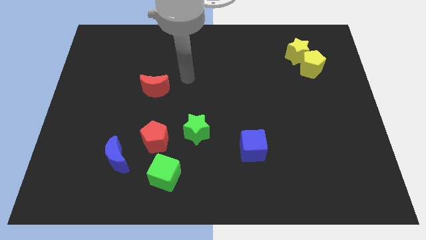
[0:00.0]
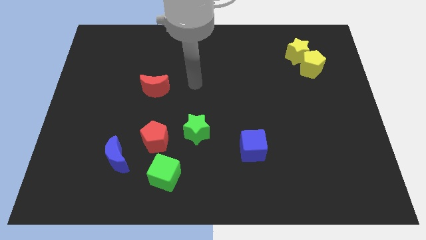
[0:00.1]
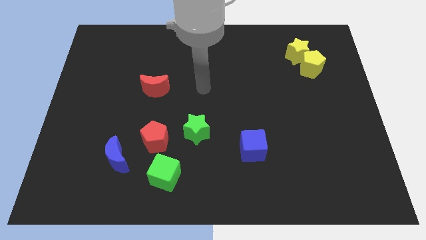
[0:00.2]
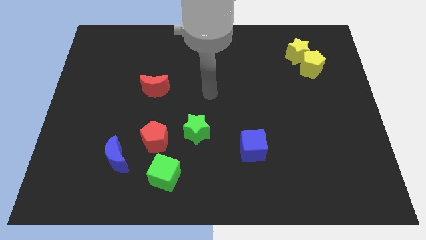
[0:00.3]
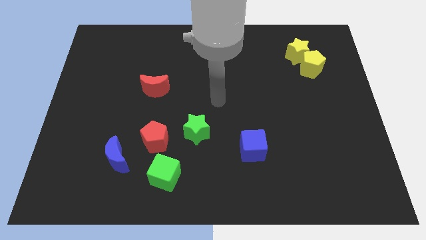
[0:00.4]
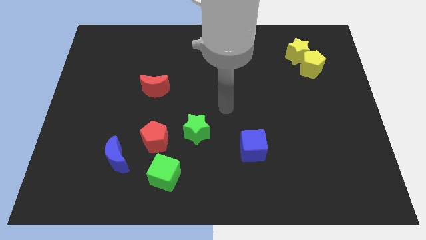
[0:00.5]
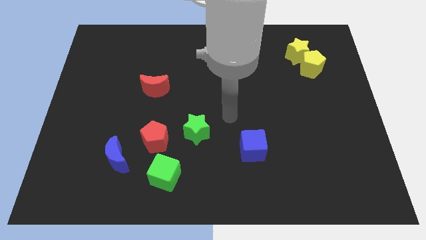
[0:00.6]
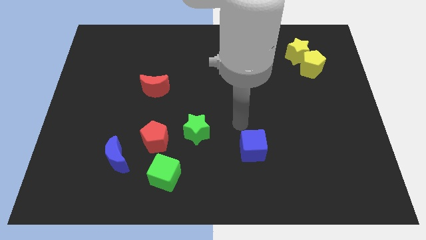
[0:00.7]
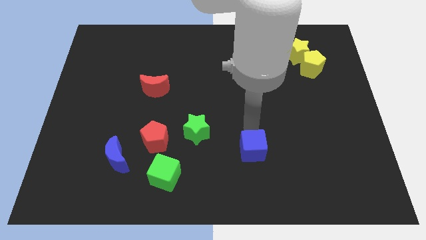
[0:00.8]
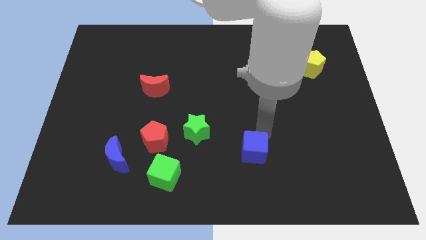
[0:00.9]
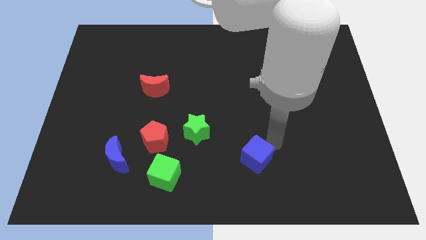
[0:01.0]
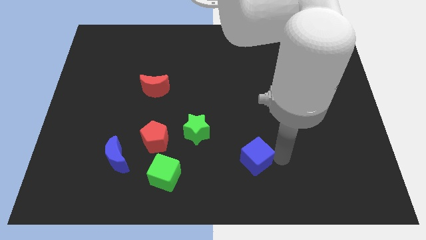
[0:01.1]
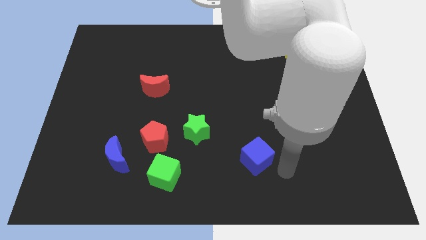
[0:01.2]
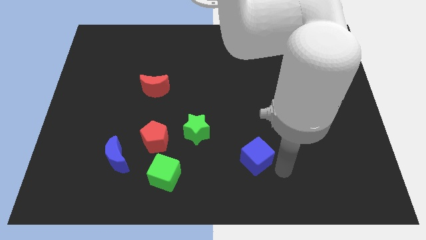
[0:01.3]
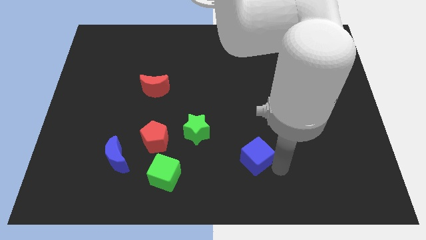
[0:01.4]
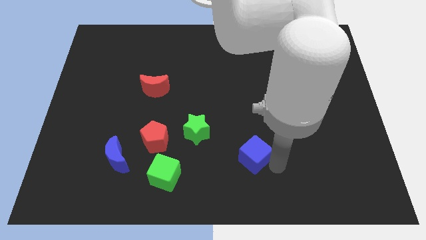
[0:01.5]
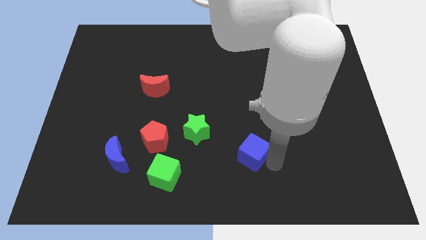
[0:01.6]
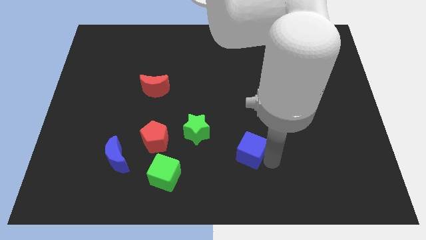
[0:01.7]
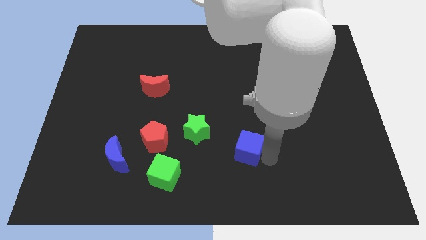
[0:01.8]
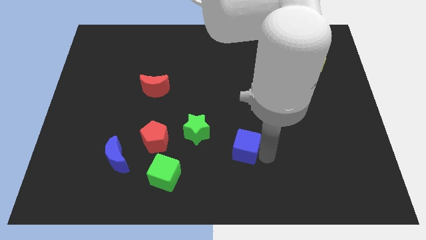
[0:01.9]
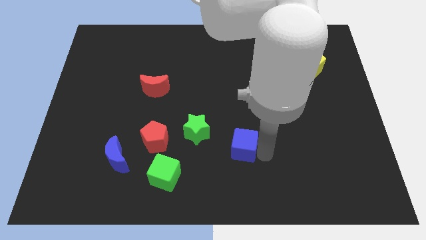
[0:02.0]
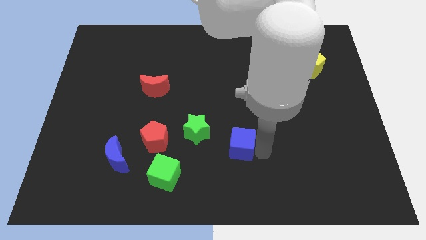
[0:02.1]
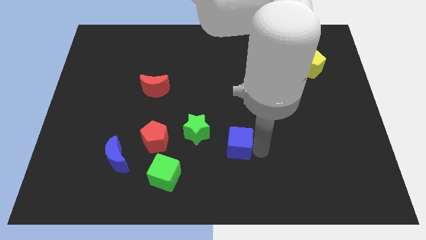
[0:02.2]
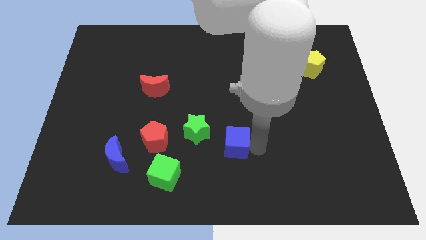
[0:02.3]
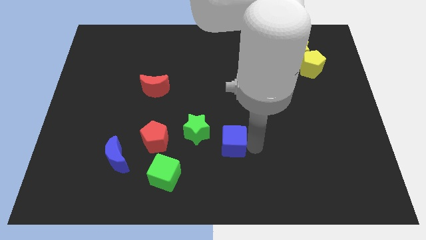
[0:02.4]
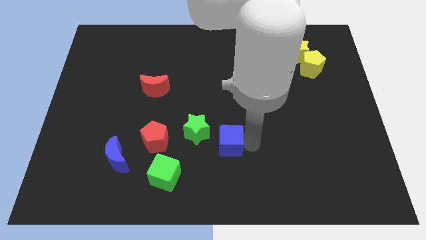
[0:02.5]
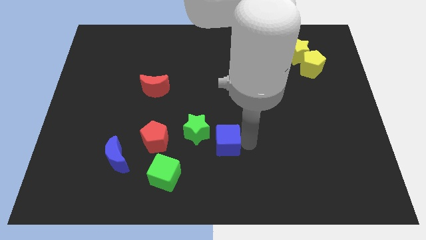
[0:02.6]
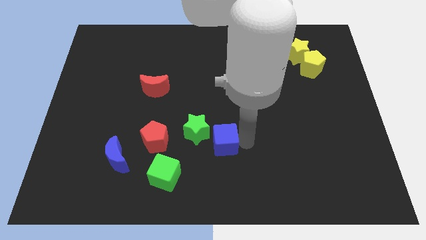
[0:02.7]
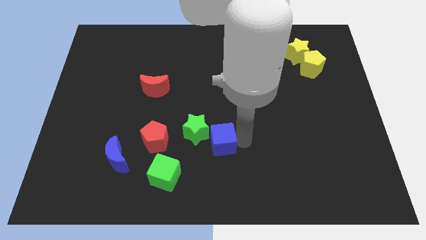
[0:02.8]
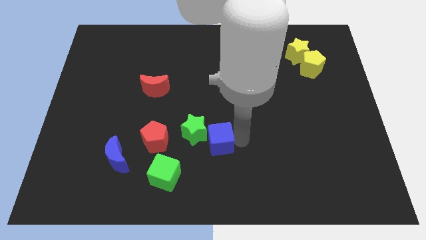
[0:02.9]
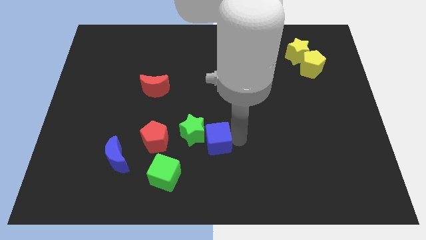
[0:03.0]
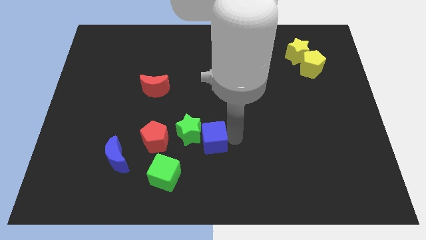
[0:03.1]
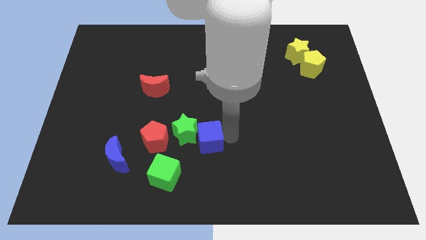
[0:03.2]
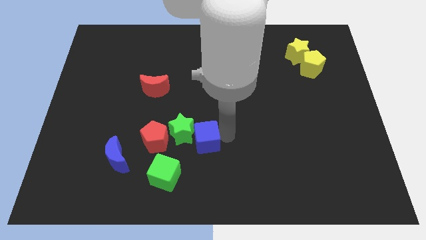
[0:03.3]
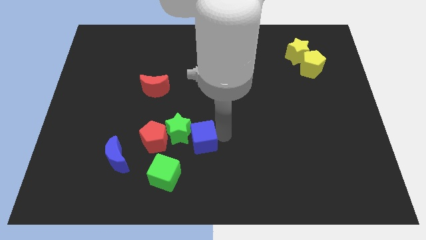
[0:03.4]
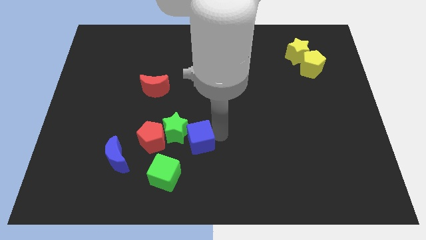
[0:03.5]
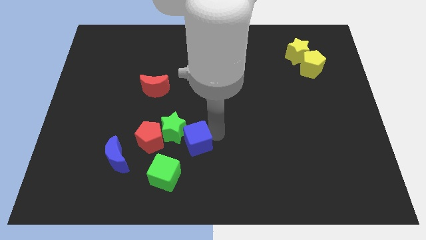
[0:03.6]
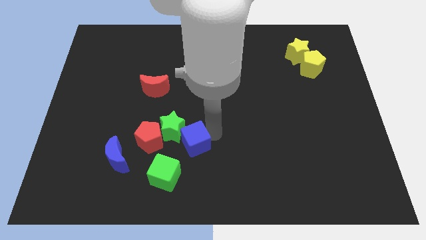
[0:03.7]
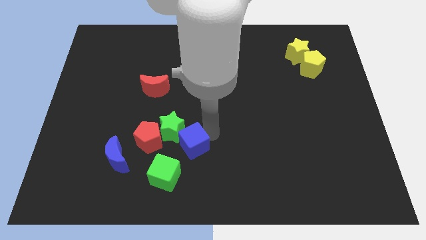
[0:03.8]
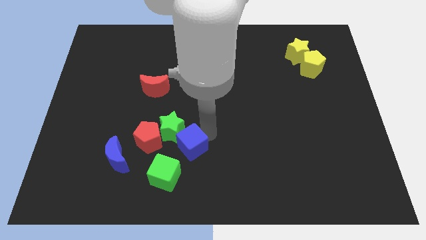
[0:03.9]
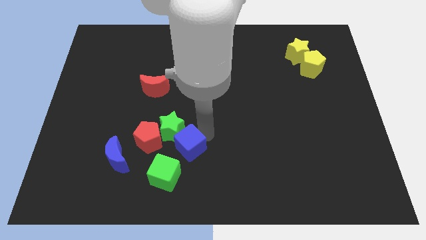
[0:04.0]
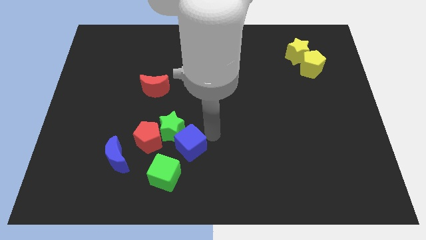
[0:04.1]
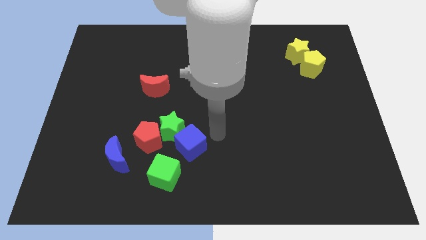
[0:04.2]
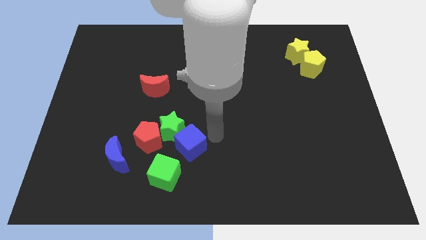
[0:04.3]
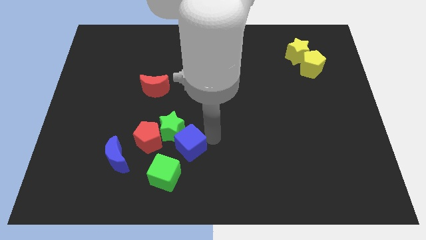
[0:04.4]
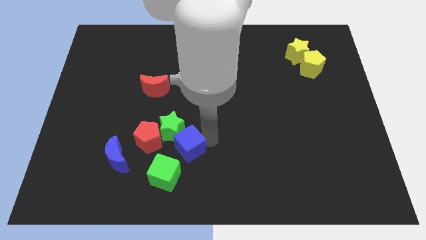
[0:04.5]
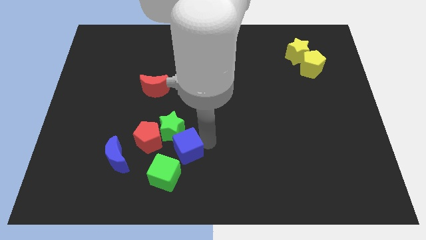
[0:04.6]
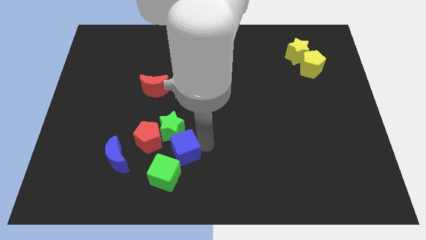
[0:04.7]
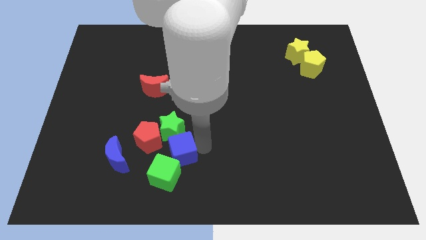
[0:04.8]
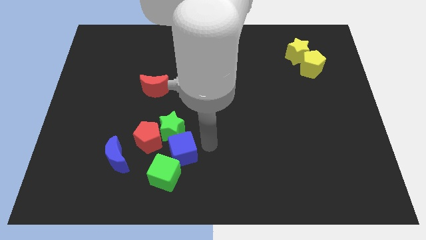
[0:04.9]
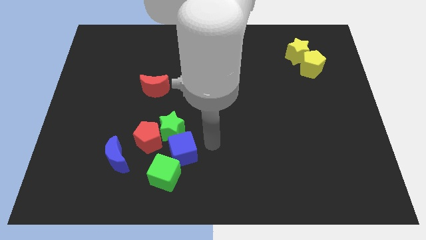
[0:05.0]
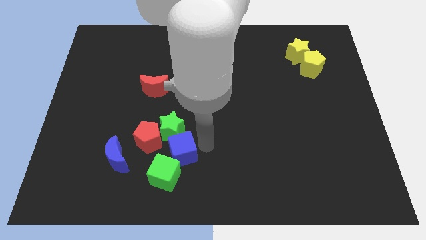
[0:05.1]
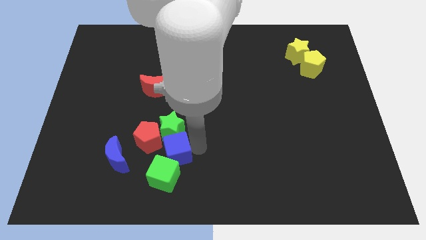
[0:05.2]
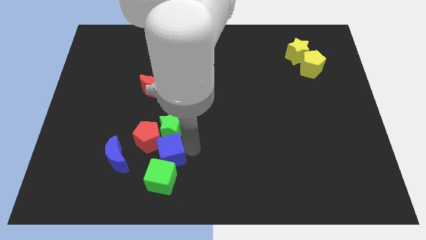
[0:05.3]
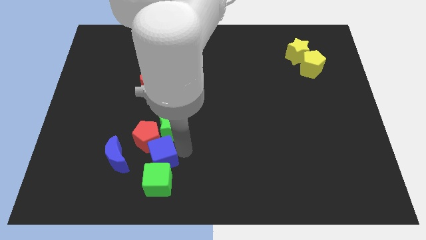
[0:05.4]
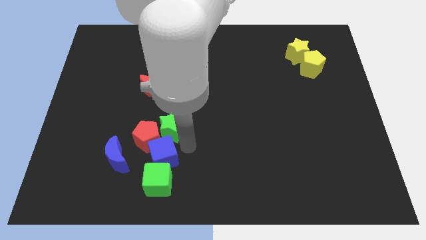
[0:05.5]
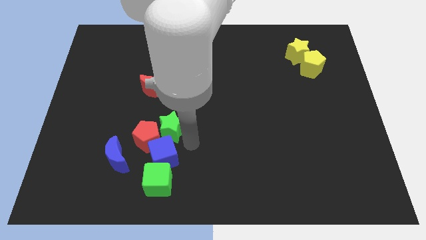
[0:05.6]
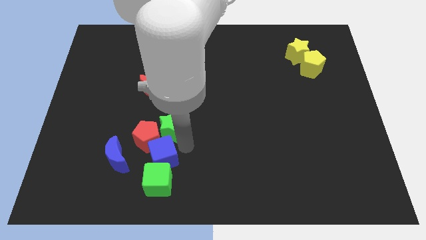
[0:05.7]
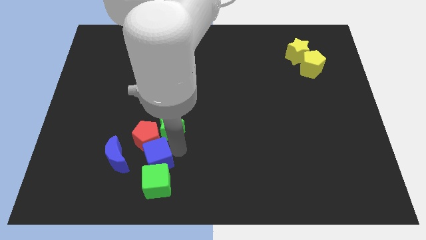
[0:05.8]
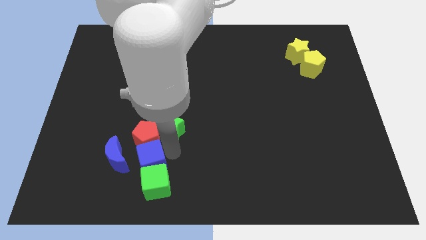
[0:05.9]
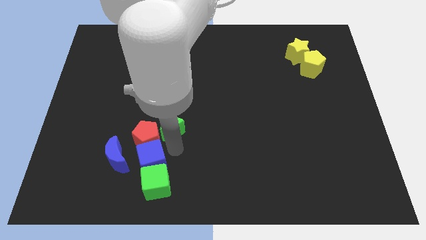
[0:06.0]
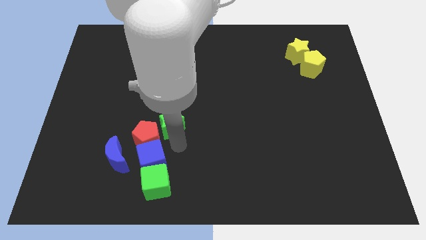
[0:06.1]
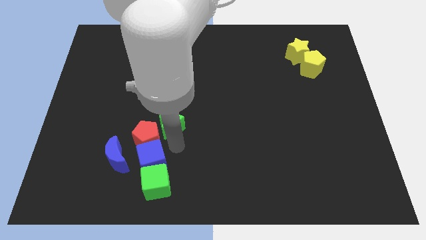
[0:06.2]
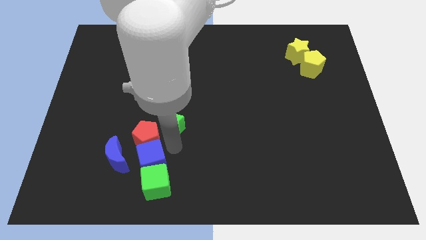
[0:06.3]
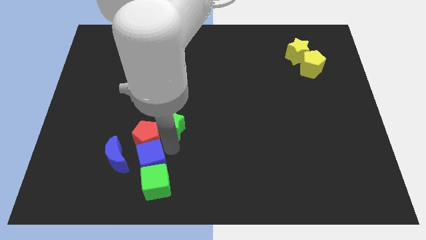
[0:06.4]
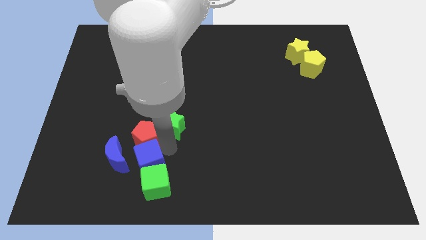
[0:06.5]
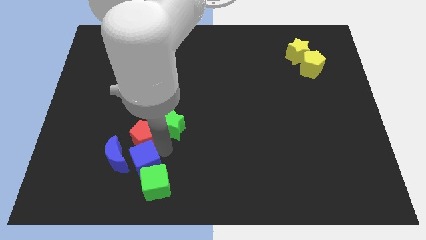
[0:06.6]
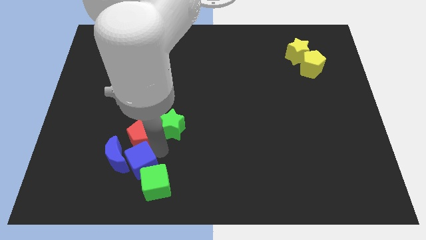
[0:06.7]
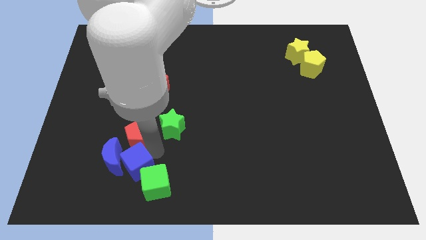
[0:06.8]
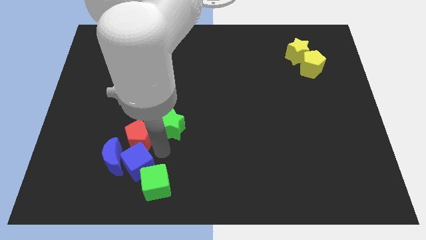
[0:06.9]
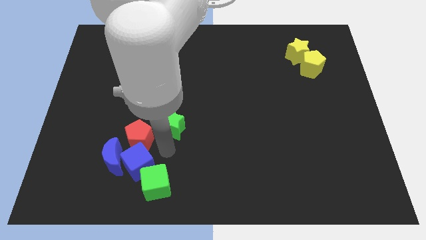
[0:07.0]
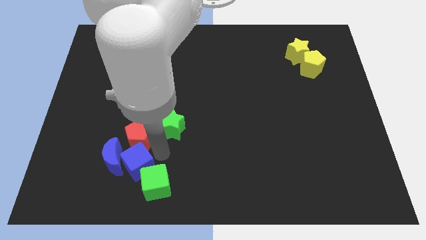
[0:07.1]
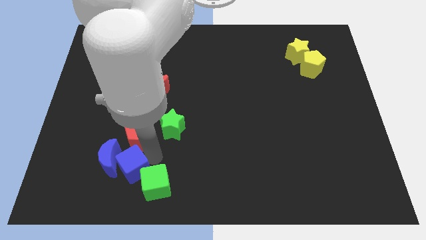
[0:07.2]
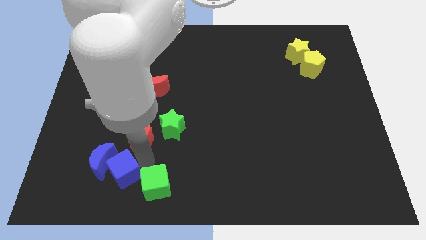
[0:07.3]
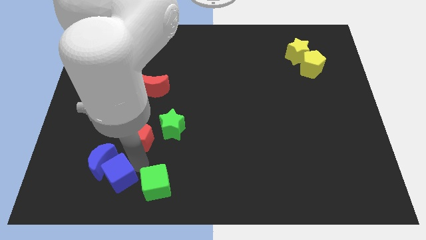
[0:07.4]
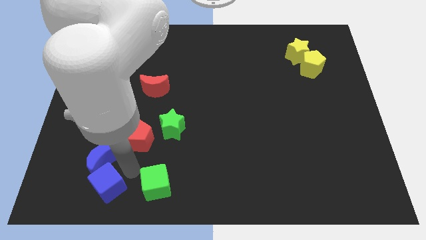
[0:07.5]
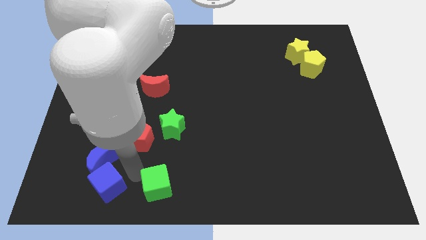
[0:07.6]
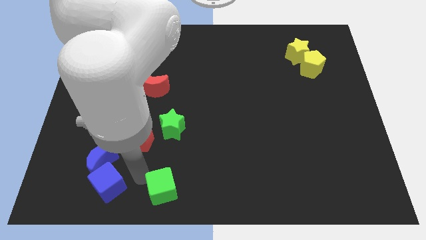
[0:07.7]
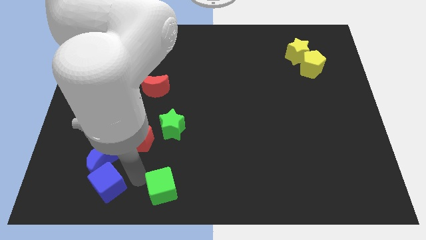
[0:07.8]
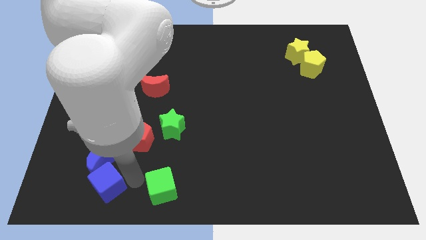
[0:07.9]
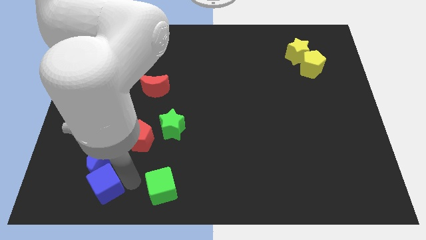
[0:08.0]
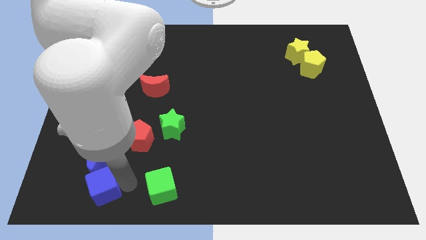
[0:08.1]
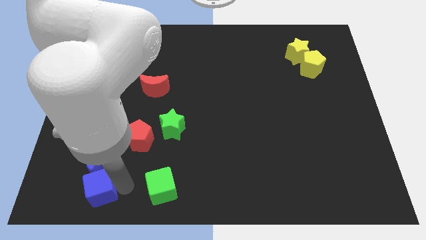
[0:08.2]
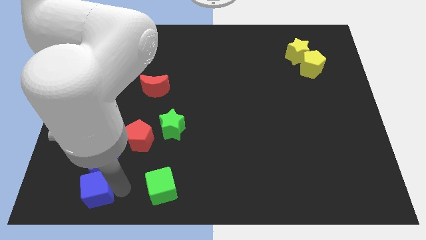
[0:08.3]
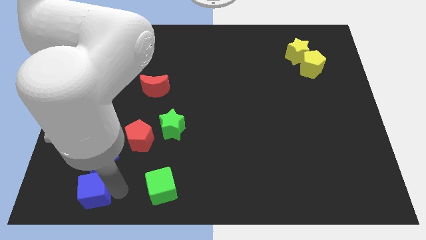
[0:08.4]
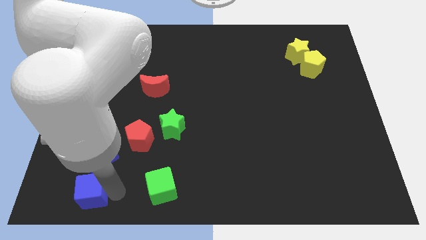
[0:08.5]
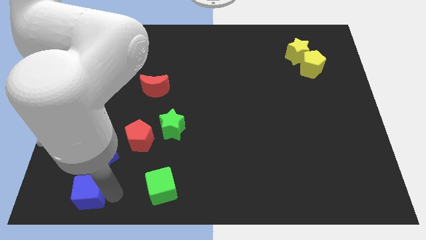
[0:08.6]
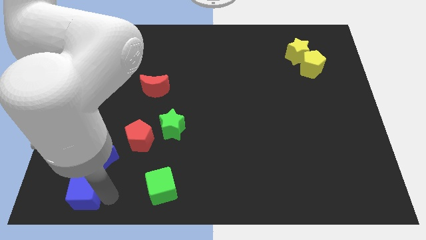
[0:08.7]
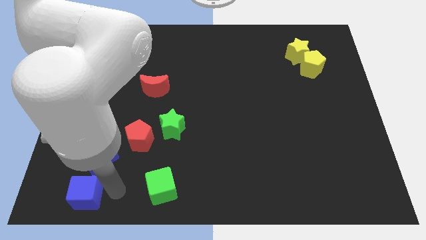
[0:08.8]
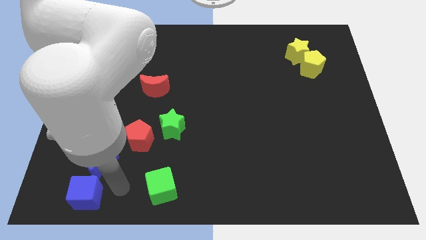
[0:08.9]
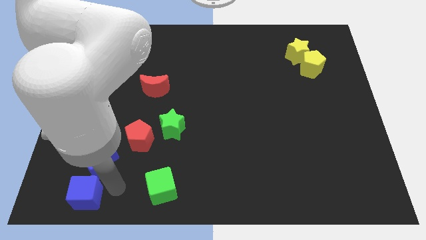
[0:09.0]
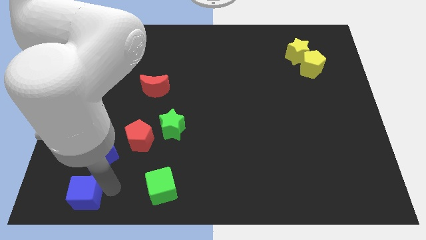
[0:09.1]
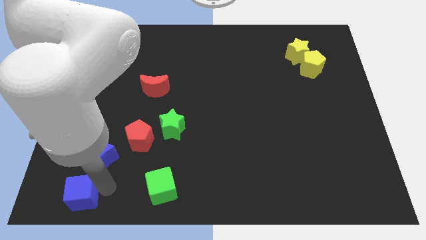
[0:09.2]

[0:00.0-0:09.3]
push the blue cube to the bottom left
